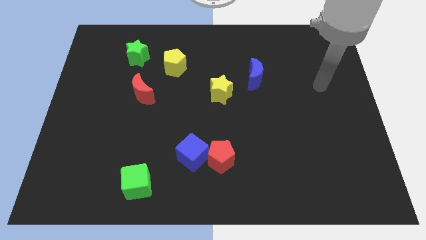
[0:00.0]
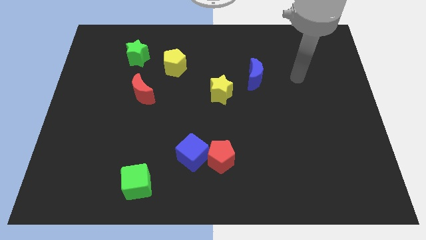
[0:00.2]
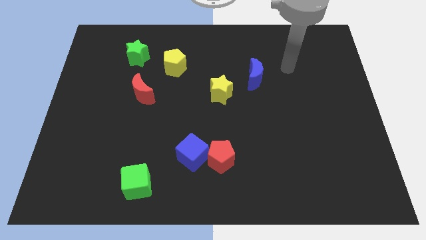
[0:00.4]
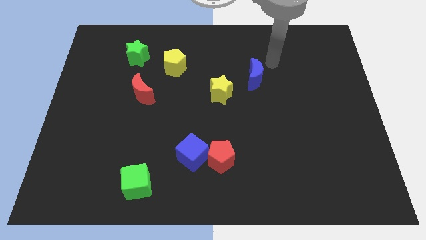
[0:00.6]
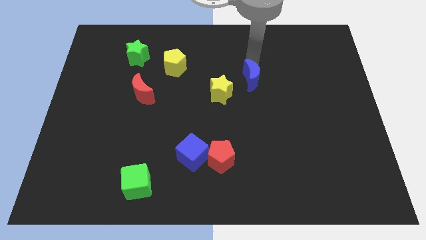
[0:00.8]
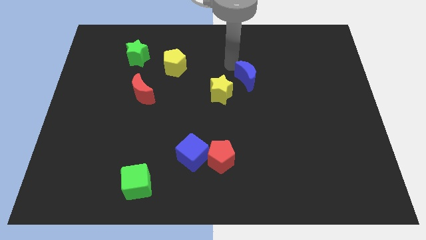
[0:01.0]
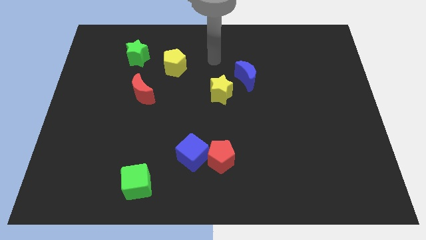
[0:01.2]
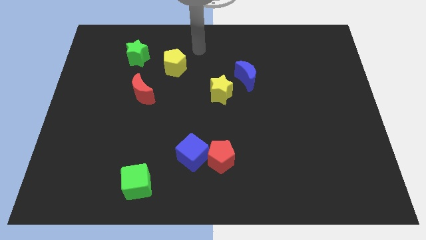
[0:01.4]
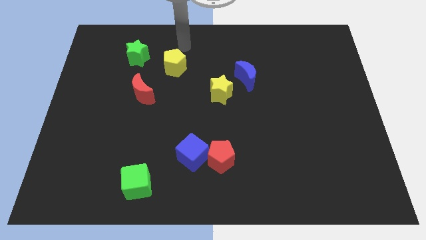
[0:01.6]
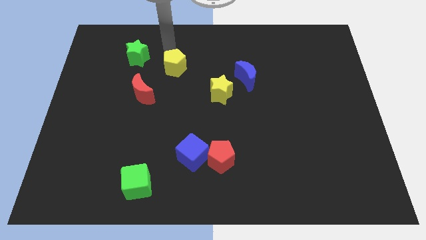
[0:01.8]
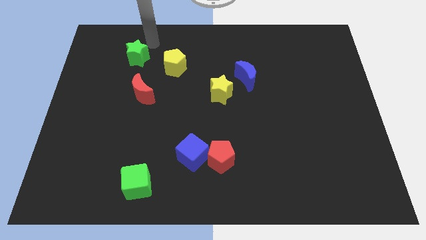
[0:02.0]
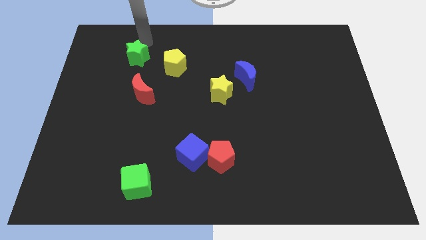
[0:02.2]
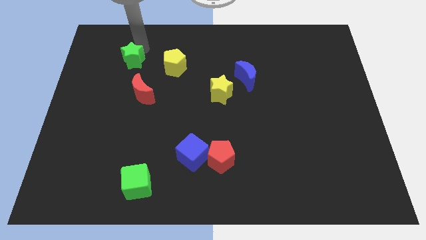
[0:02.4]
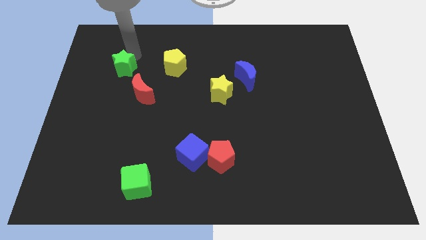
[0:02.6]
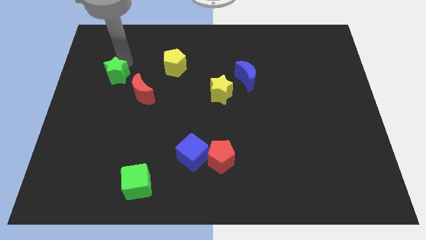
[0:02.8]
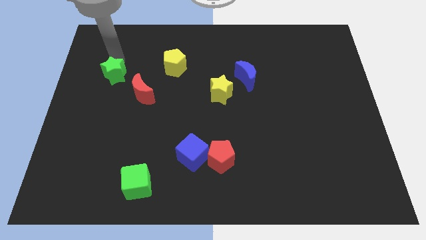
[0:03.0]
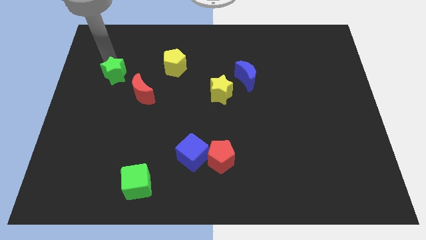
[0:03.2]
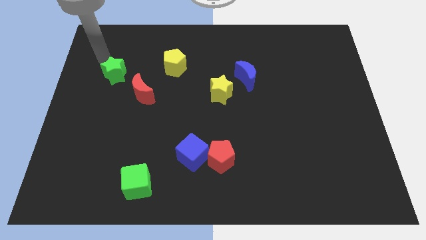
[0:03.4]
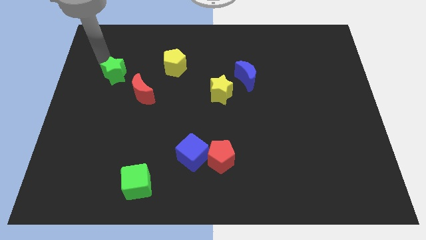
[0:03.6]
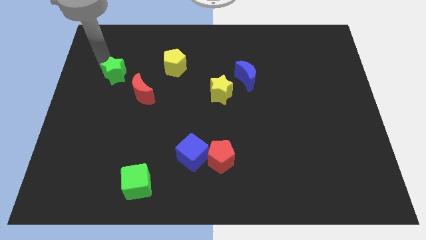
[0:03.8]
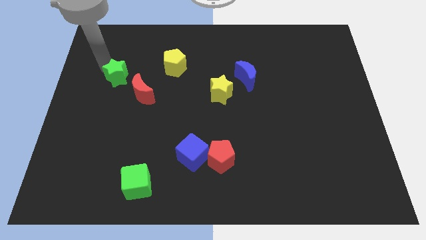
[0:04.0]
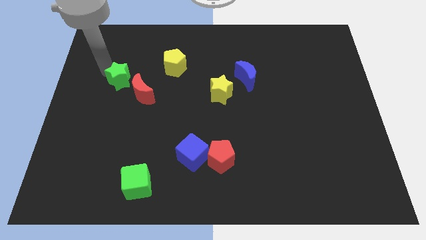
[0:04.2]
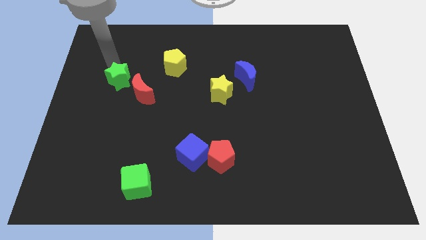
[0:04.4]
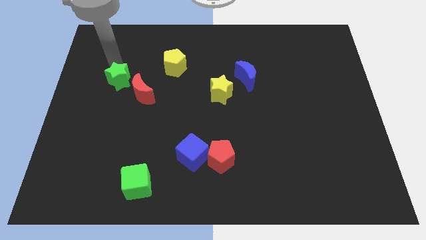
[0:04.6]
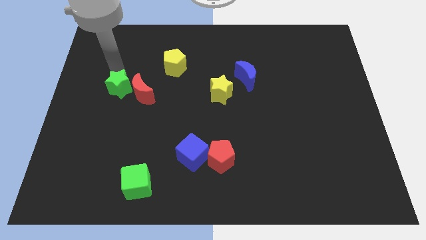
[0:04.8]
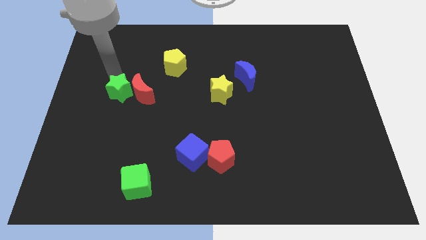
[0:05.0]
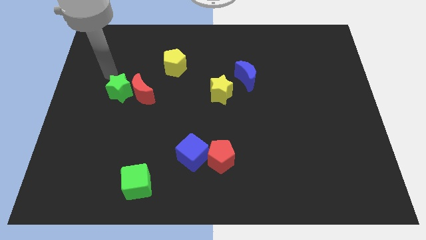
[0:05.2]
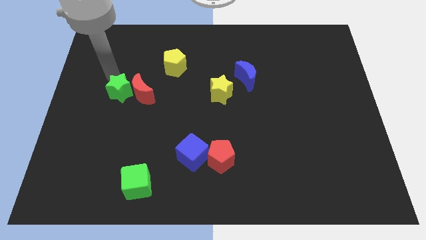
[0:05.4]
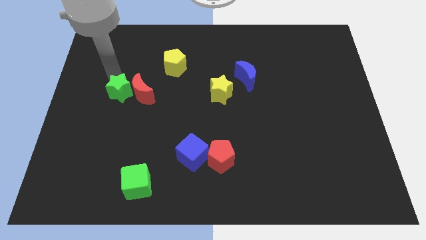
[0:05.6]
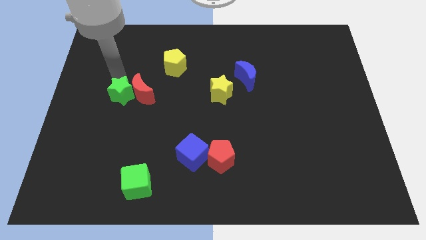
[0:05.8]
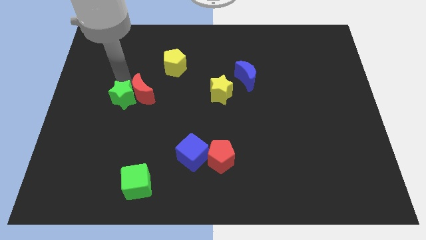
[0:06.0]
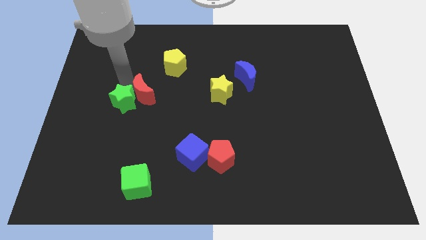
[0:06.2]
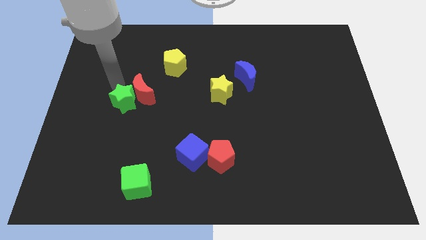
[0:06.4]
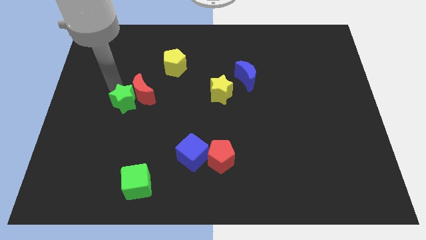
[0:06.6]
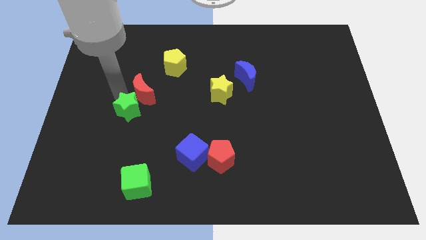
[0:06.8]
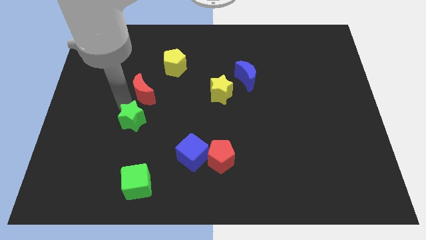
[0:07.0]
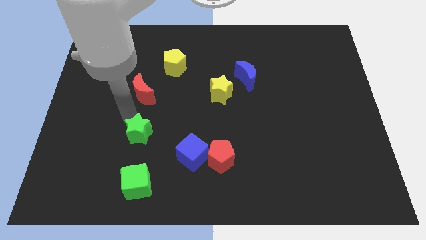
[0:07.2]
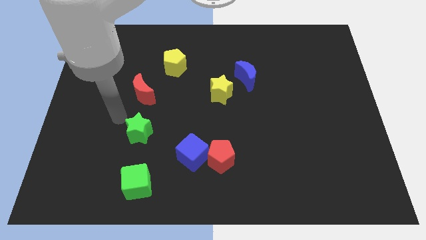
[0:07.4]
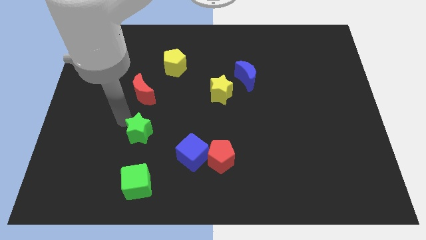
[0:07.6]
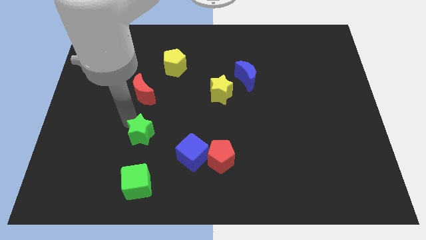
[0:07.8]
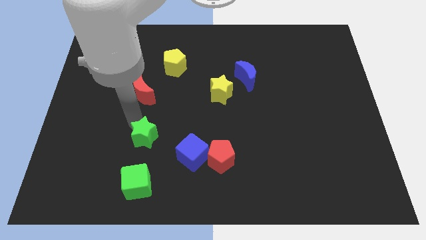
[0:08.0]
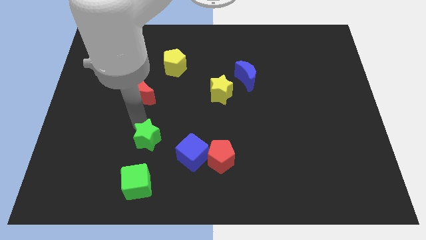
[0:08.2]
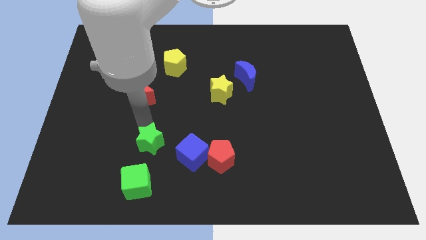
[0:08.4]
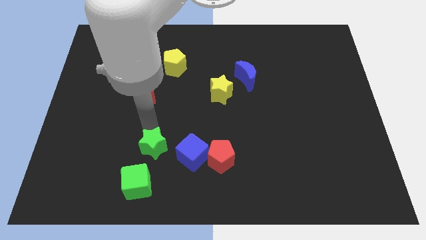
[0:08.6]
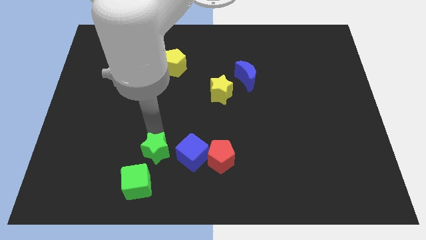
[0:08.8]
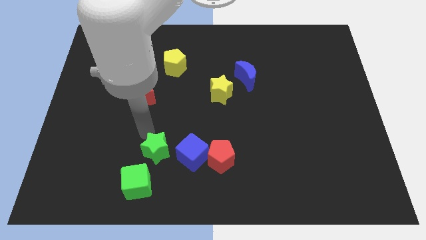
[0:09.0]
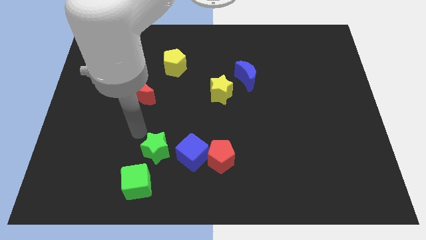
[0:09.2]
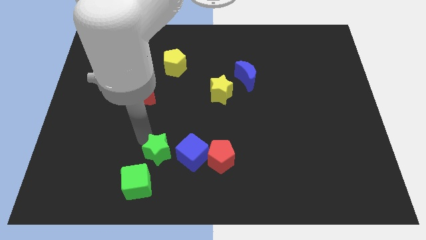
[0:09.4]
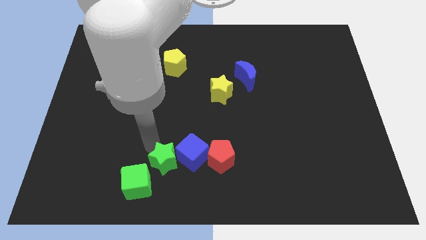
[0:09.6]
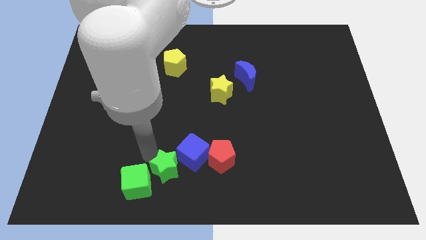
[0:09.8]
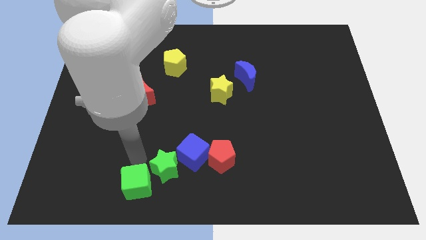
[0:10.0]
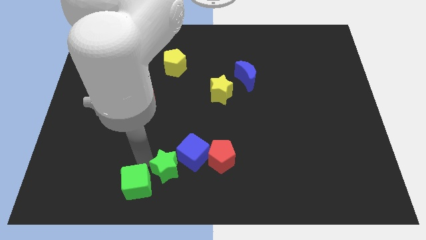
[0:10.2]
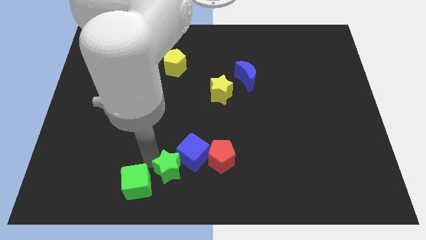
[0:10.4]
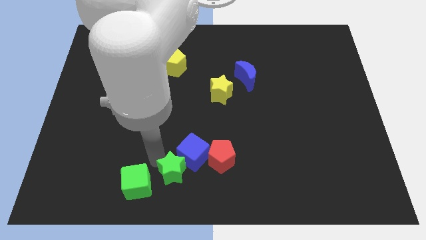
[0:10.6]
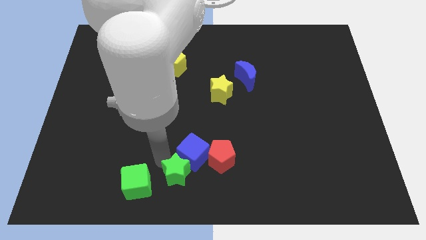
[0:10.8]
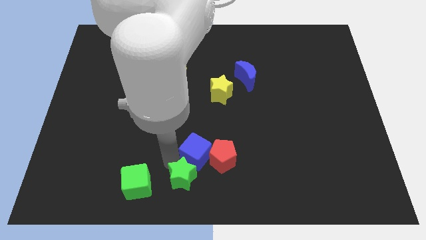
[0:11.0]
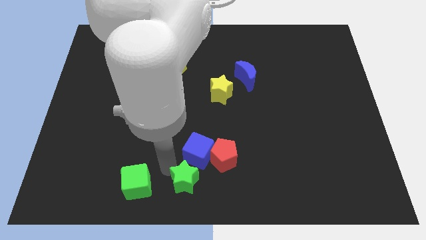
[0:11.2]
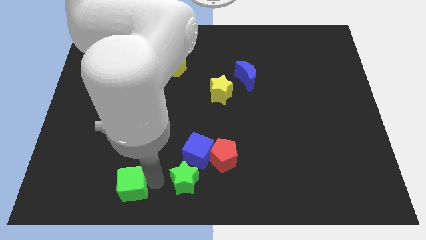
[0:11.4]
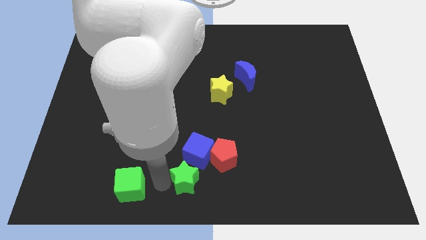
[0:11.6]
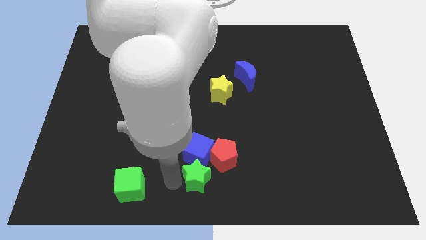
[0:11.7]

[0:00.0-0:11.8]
put the green star to the bottom right side of the blue cube

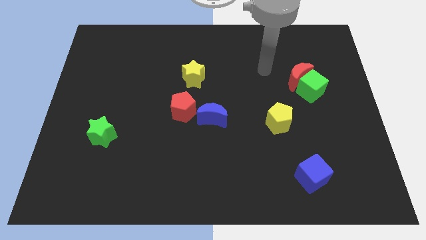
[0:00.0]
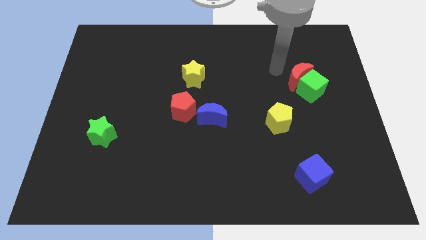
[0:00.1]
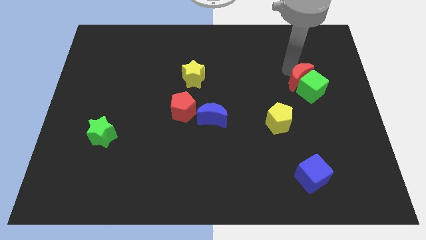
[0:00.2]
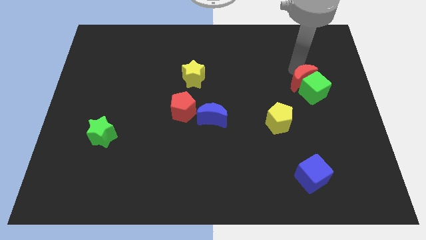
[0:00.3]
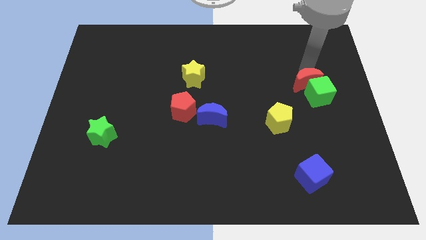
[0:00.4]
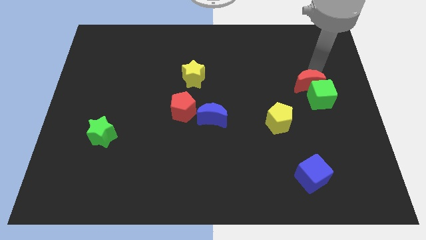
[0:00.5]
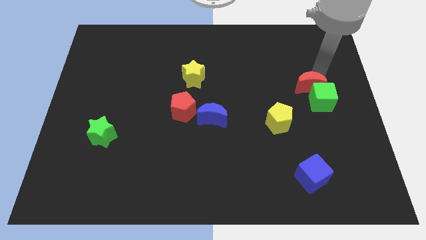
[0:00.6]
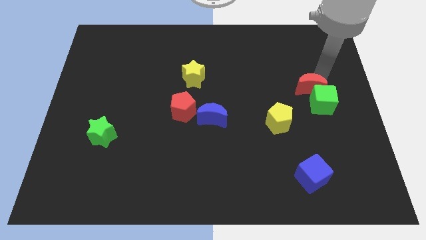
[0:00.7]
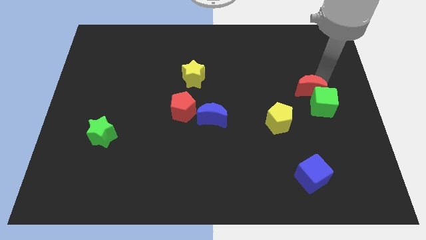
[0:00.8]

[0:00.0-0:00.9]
push the green cube to the right of the yellow pentagon

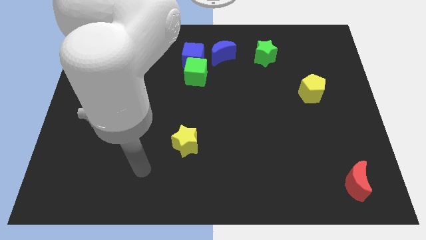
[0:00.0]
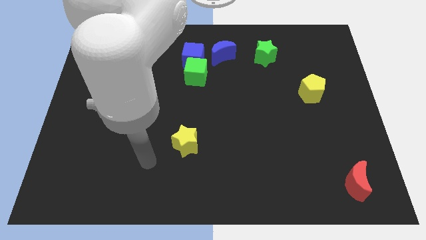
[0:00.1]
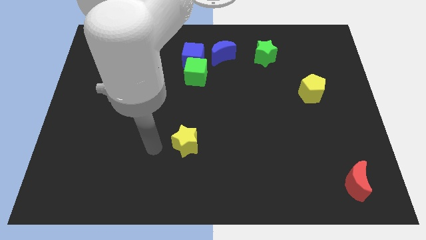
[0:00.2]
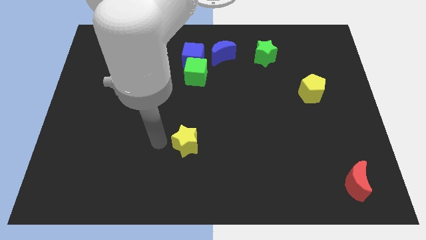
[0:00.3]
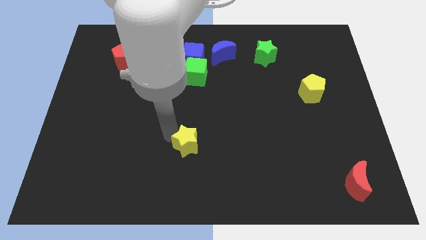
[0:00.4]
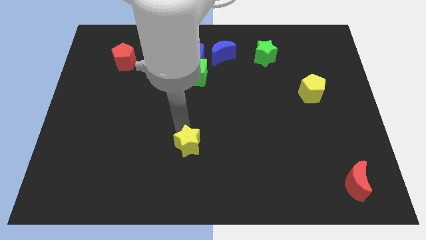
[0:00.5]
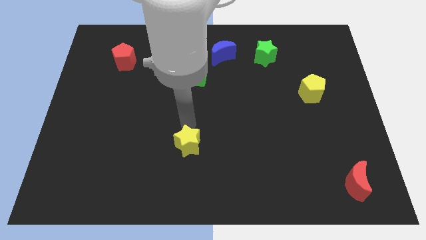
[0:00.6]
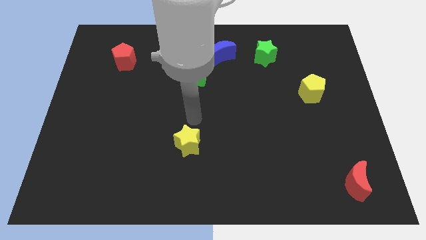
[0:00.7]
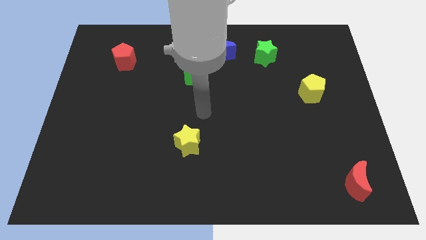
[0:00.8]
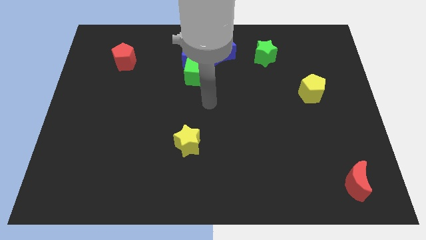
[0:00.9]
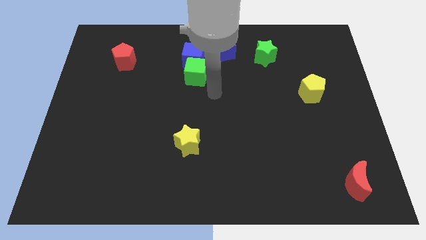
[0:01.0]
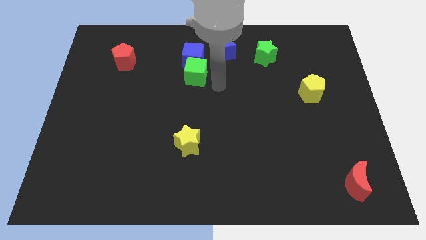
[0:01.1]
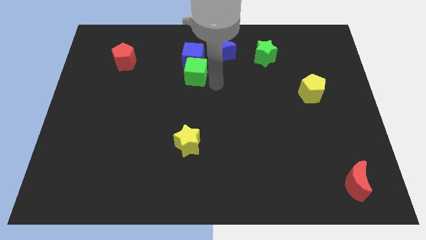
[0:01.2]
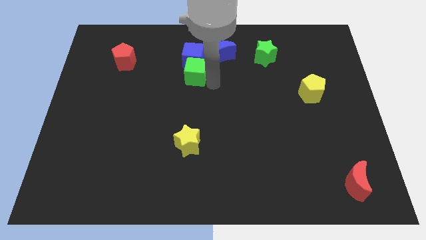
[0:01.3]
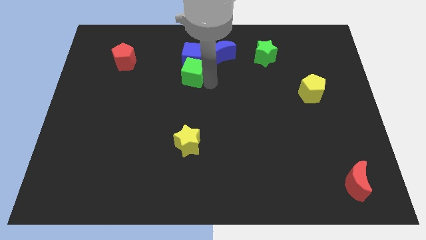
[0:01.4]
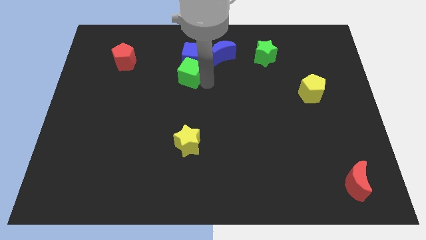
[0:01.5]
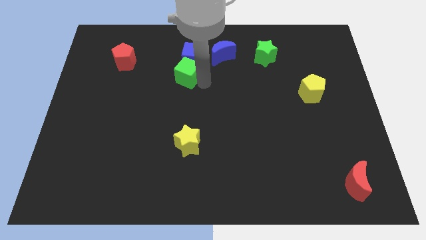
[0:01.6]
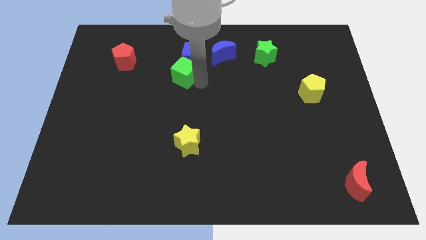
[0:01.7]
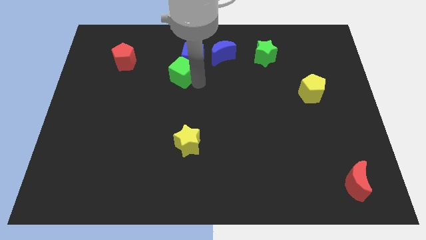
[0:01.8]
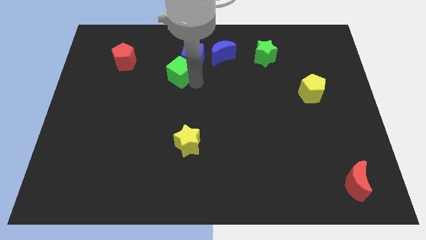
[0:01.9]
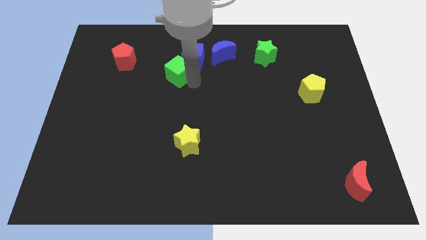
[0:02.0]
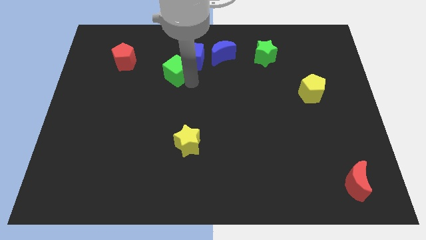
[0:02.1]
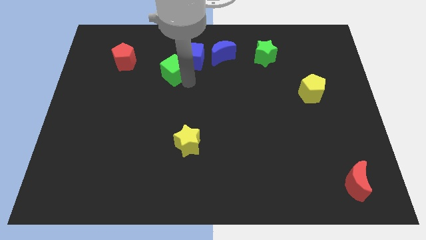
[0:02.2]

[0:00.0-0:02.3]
push the green cube to the right of the red pentagon
